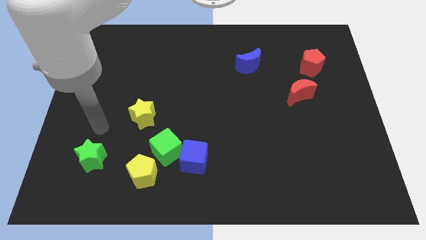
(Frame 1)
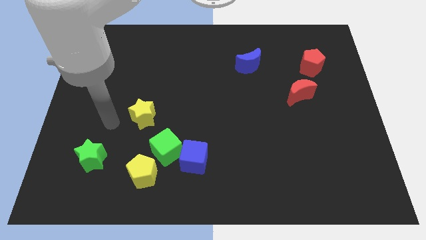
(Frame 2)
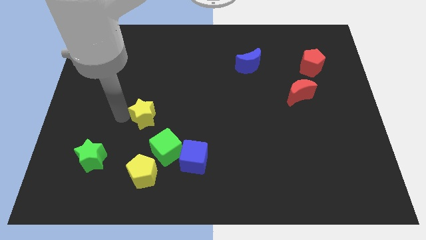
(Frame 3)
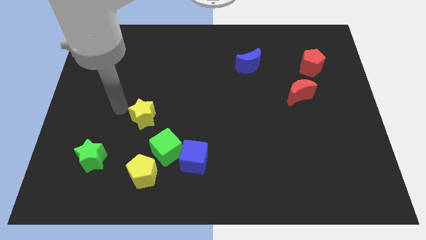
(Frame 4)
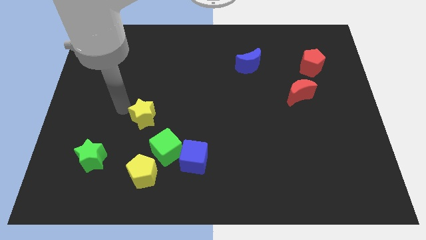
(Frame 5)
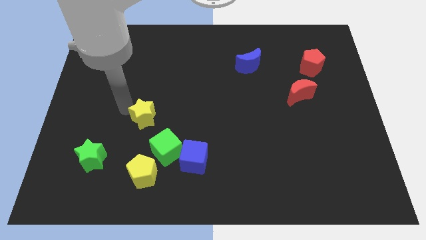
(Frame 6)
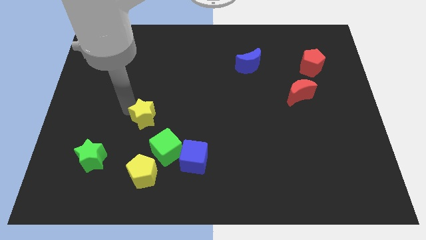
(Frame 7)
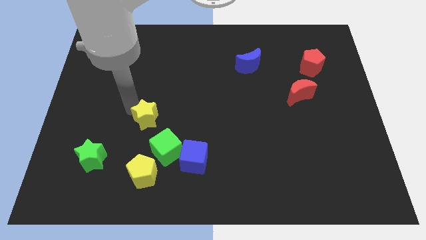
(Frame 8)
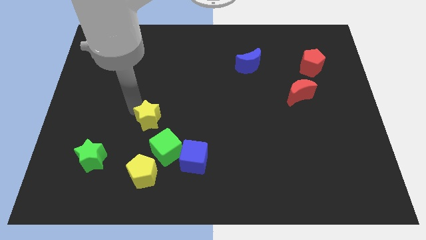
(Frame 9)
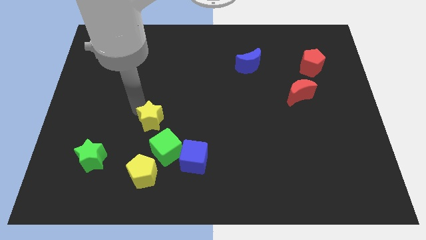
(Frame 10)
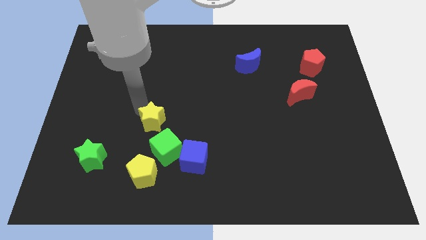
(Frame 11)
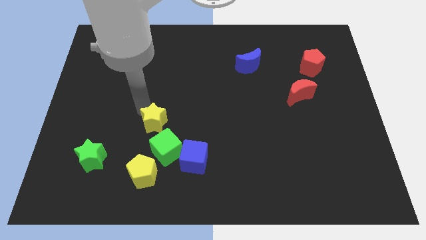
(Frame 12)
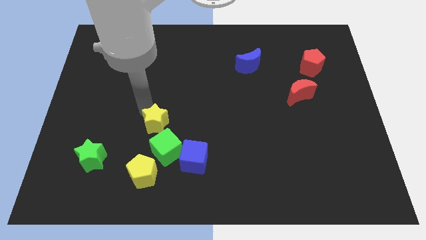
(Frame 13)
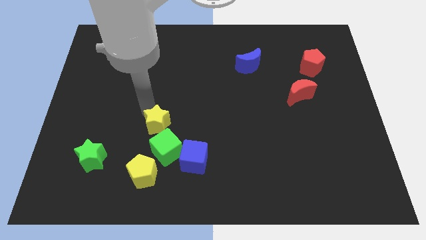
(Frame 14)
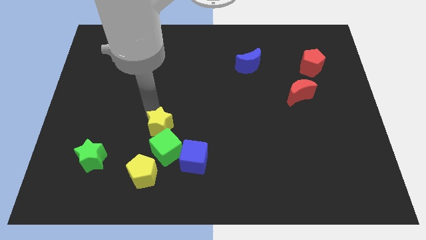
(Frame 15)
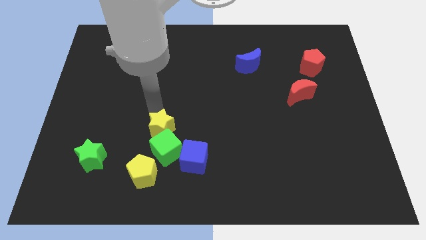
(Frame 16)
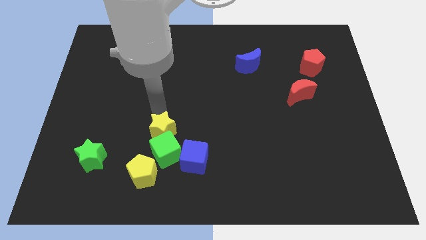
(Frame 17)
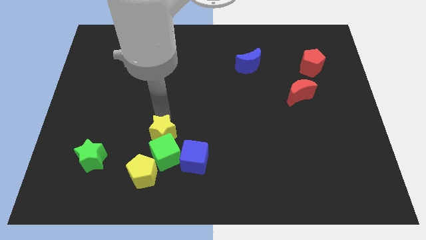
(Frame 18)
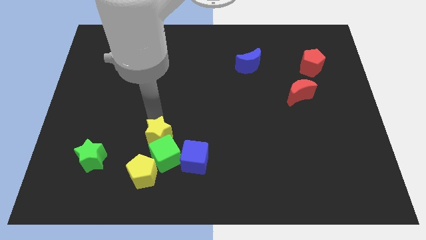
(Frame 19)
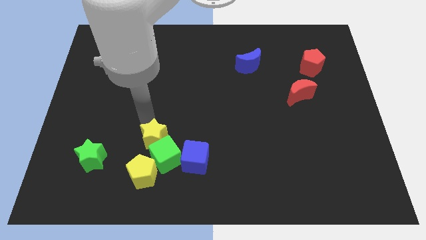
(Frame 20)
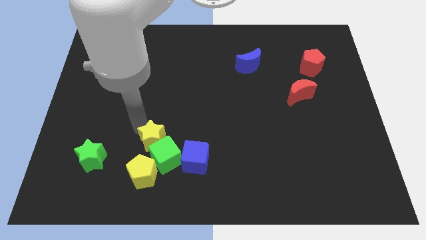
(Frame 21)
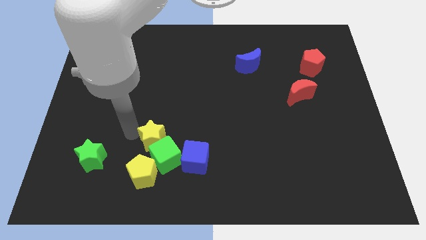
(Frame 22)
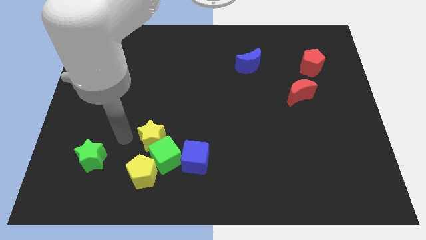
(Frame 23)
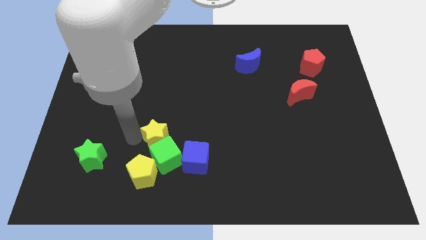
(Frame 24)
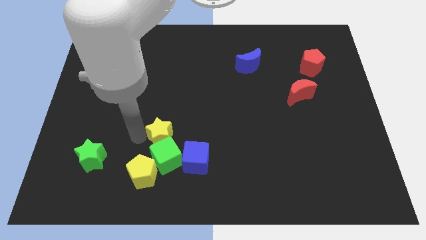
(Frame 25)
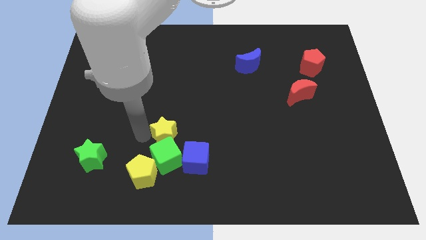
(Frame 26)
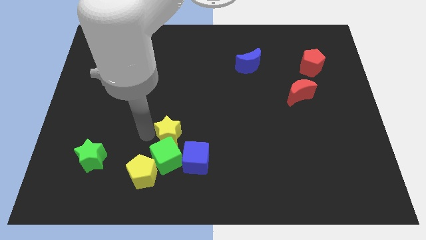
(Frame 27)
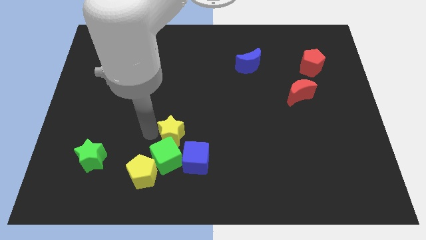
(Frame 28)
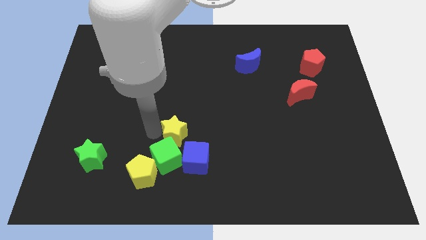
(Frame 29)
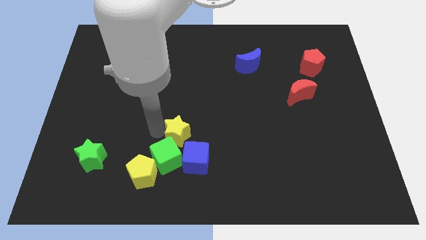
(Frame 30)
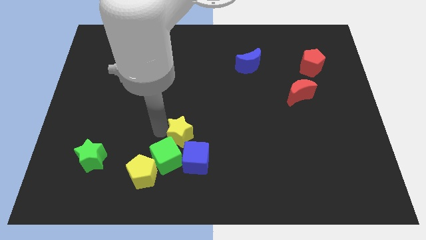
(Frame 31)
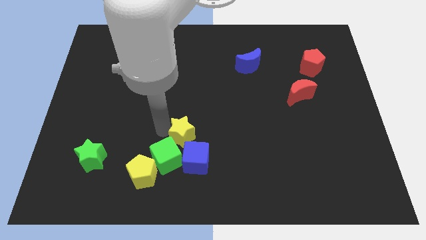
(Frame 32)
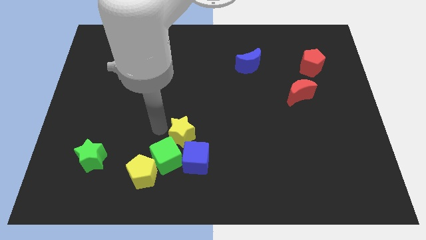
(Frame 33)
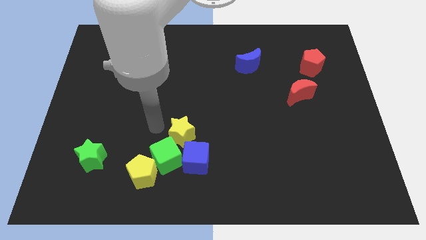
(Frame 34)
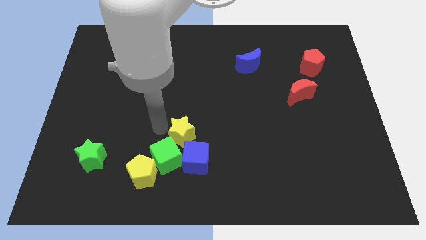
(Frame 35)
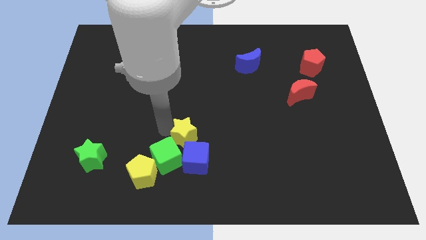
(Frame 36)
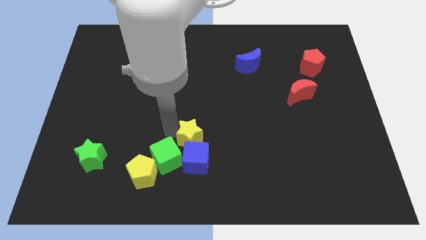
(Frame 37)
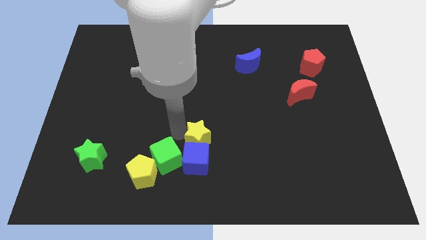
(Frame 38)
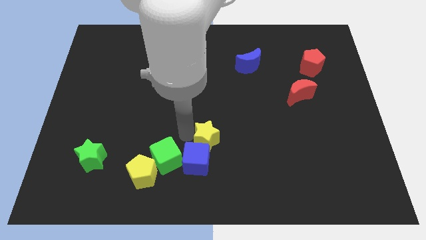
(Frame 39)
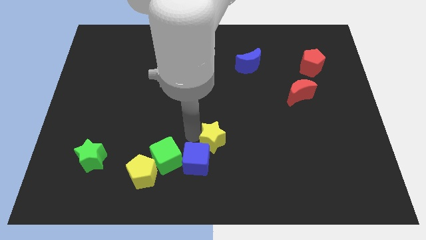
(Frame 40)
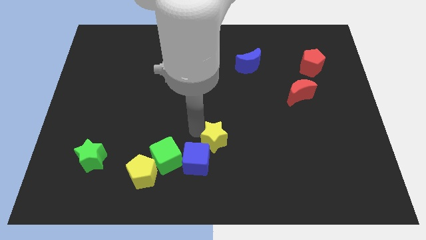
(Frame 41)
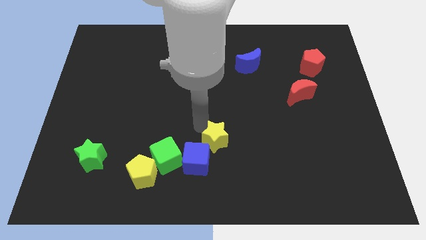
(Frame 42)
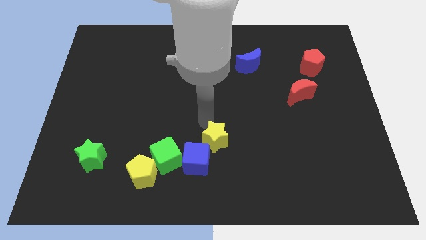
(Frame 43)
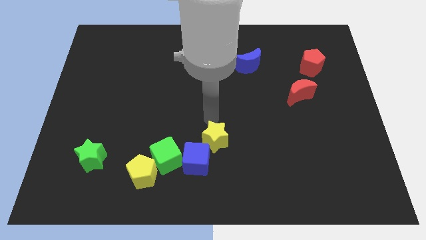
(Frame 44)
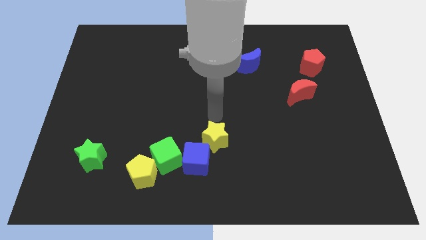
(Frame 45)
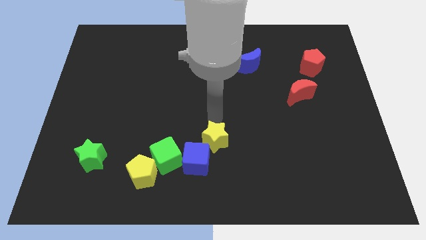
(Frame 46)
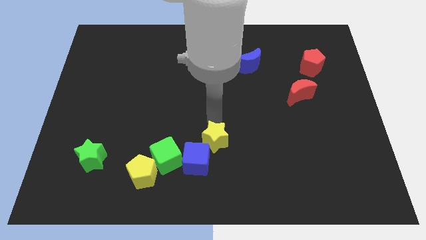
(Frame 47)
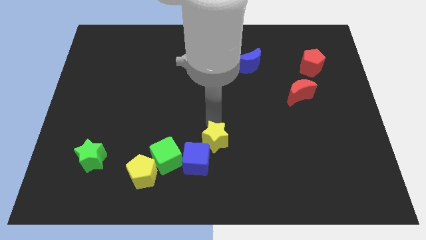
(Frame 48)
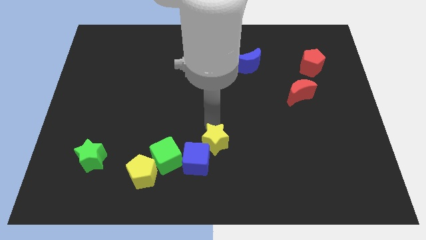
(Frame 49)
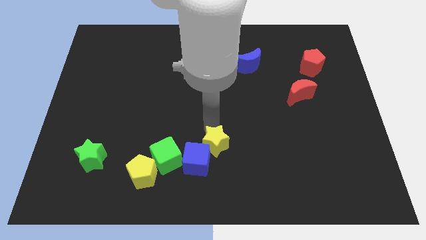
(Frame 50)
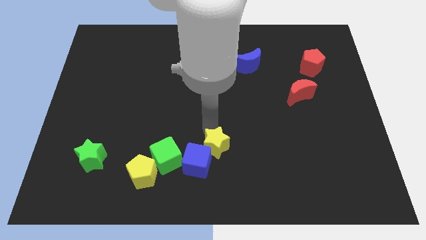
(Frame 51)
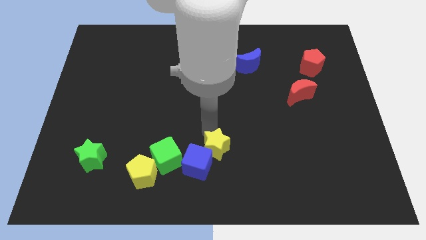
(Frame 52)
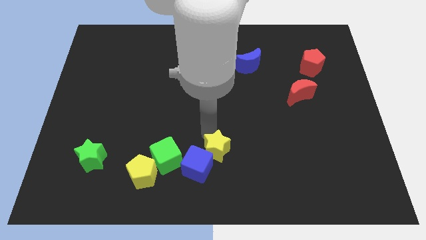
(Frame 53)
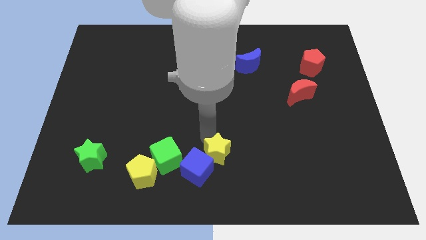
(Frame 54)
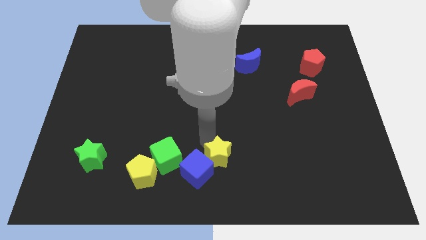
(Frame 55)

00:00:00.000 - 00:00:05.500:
put the yellow star to the bottom

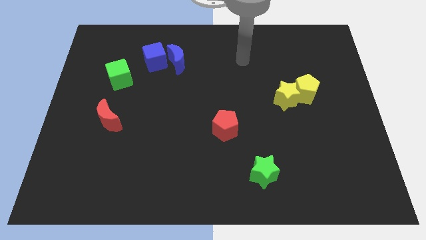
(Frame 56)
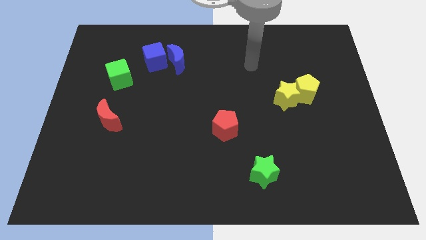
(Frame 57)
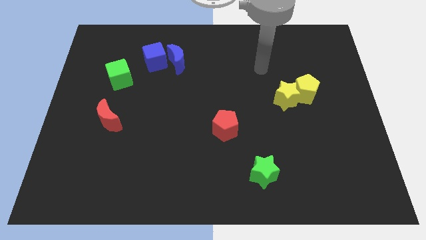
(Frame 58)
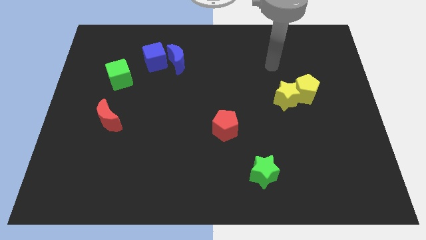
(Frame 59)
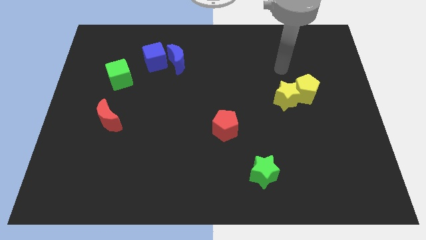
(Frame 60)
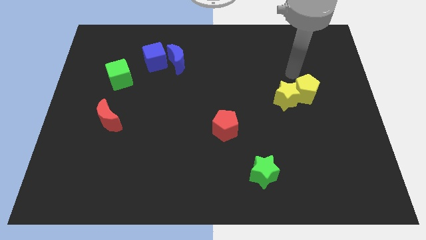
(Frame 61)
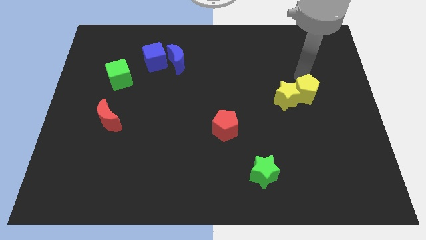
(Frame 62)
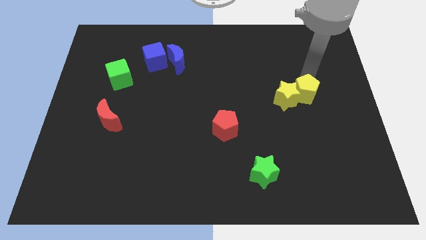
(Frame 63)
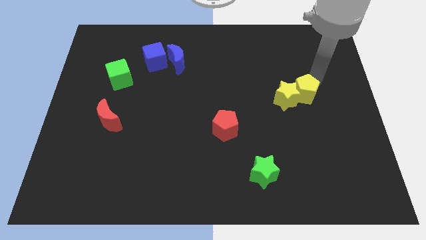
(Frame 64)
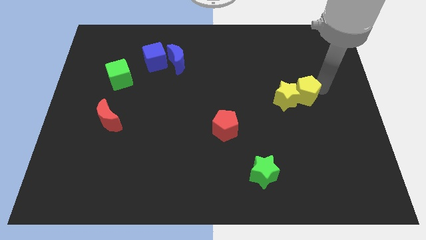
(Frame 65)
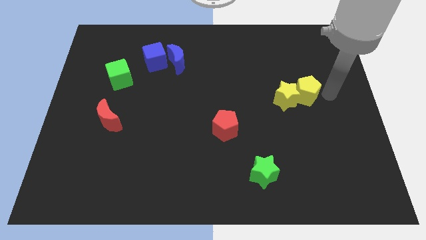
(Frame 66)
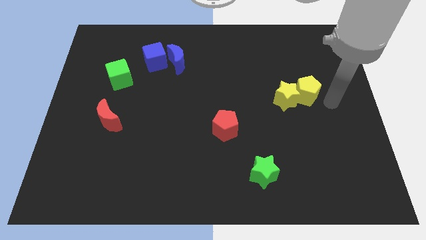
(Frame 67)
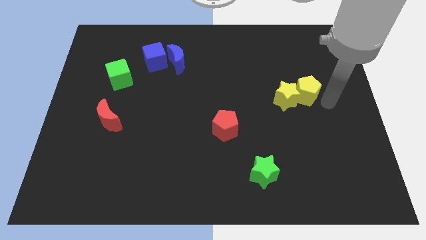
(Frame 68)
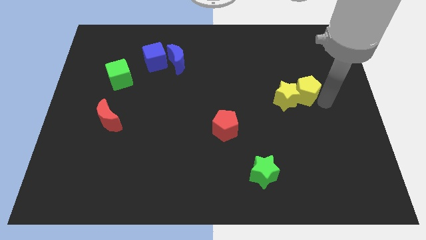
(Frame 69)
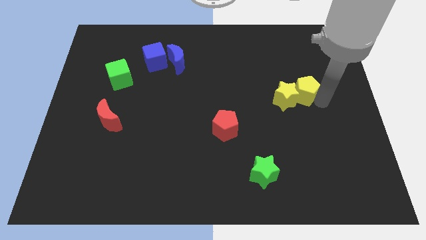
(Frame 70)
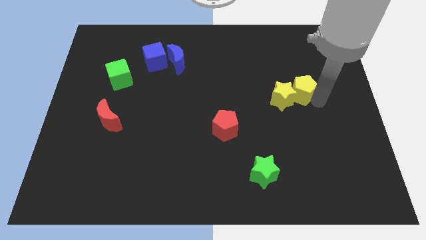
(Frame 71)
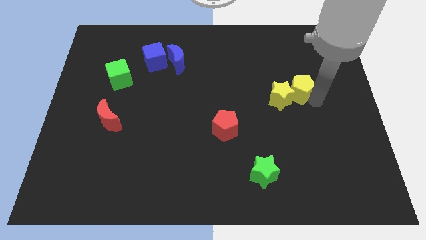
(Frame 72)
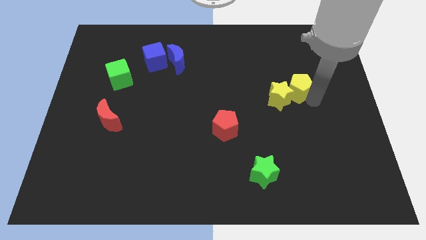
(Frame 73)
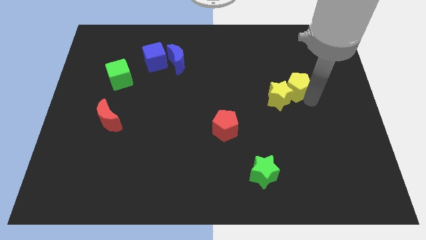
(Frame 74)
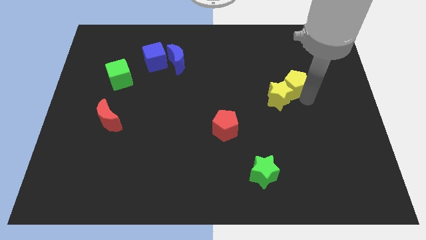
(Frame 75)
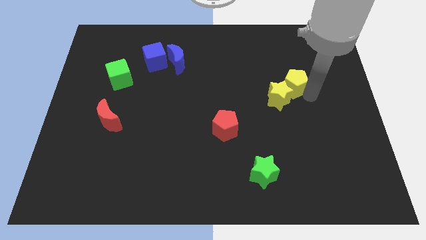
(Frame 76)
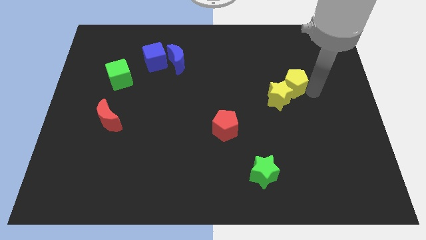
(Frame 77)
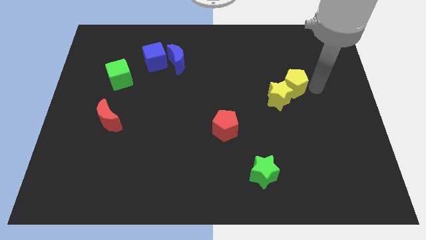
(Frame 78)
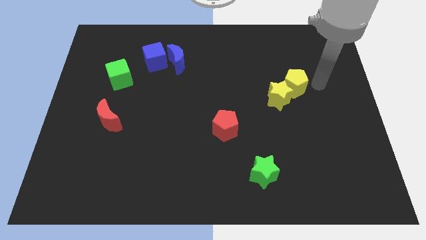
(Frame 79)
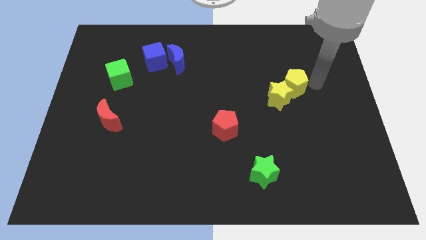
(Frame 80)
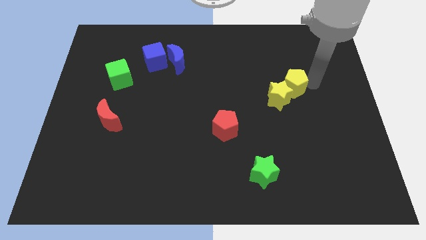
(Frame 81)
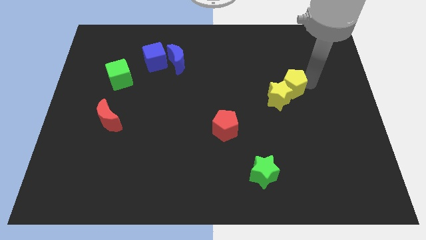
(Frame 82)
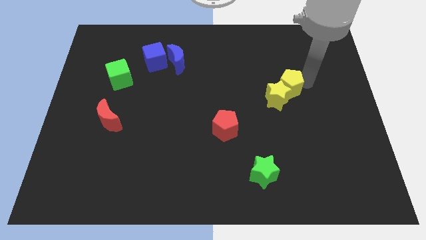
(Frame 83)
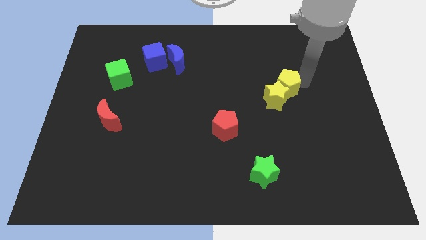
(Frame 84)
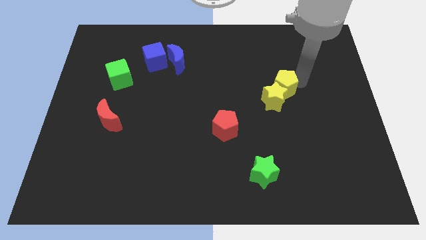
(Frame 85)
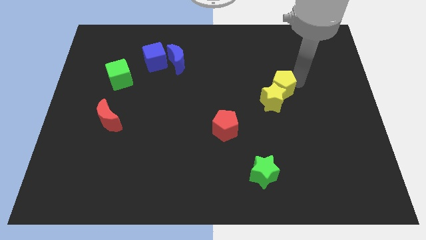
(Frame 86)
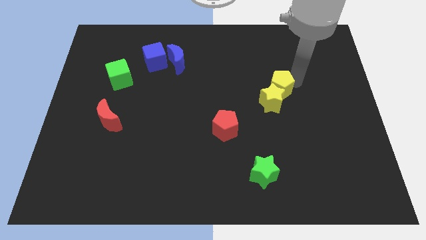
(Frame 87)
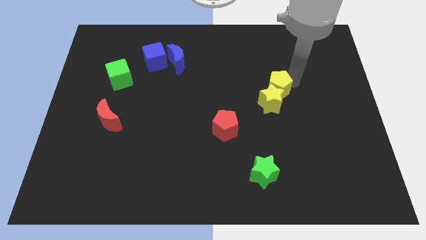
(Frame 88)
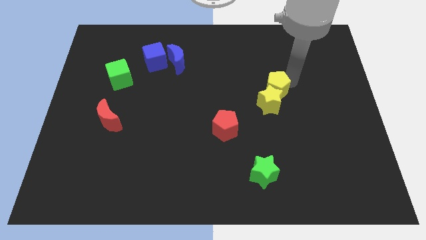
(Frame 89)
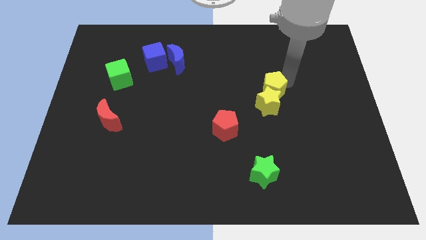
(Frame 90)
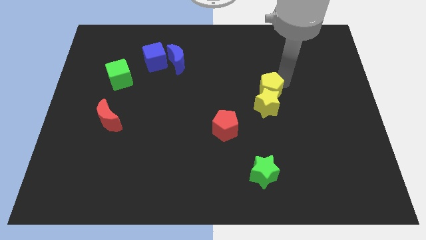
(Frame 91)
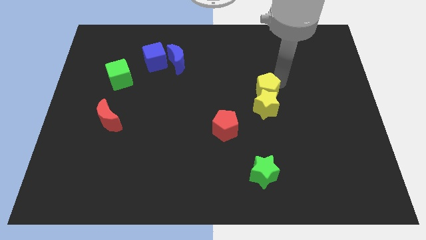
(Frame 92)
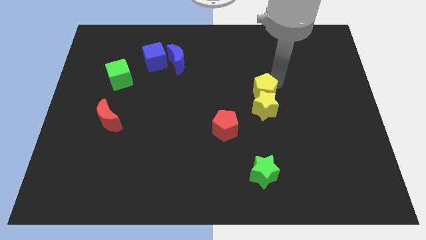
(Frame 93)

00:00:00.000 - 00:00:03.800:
slide the yellow pentagon to the middle
